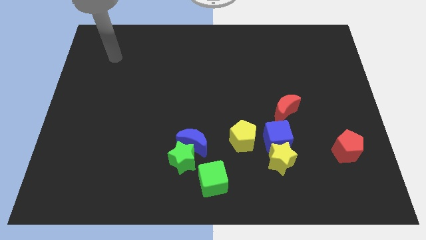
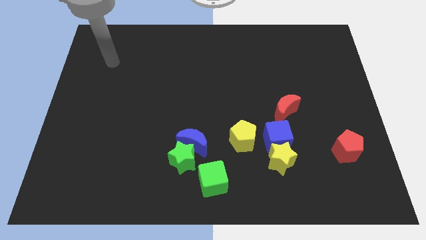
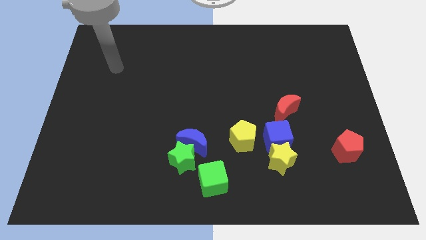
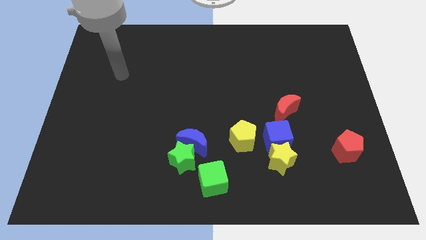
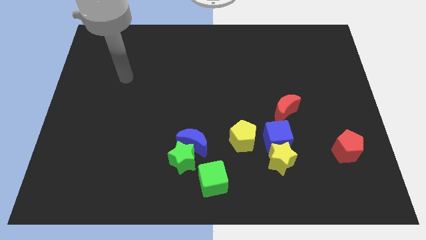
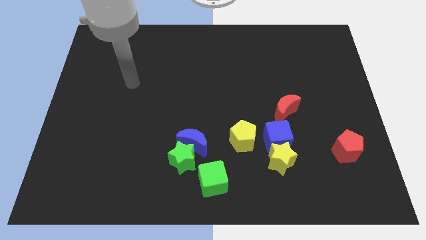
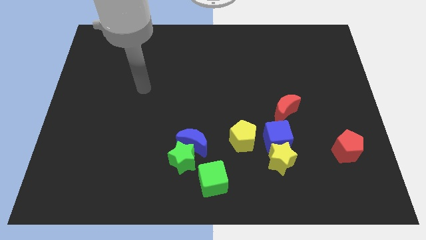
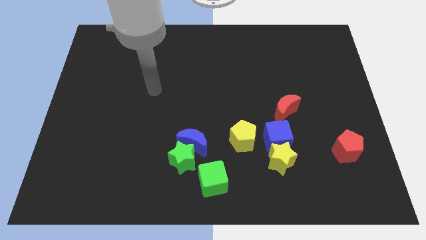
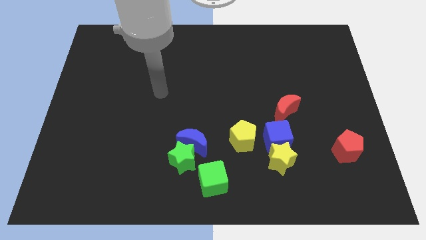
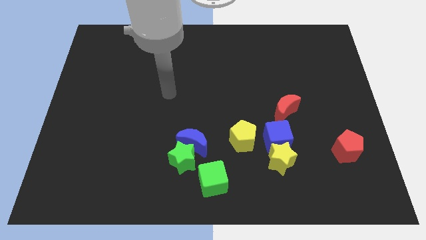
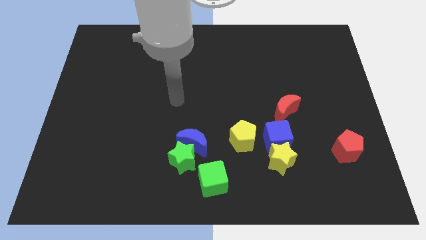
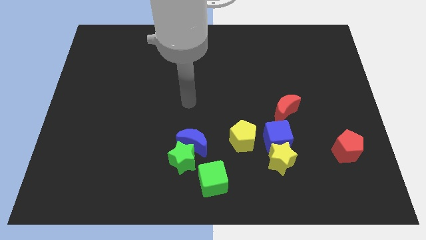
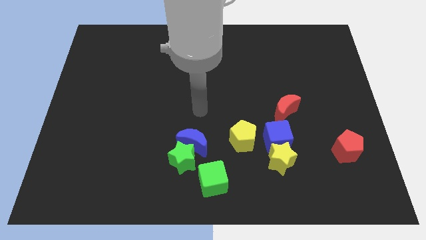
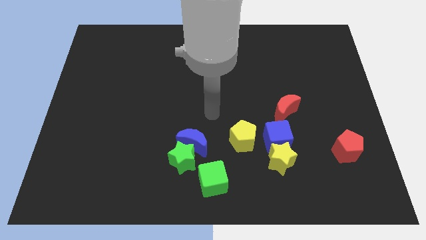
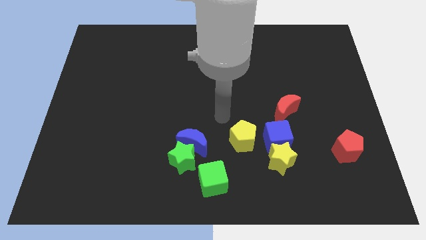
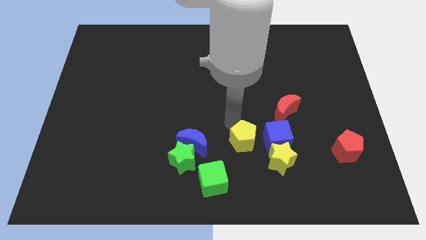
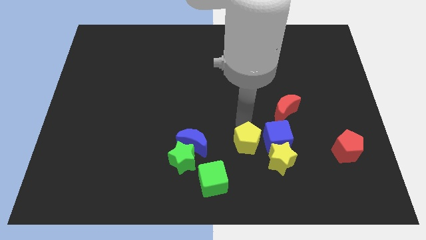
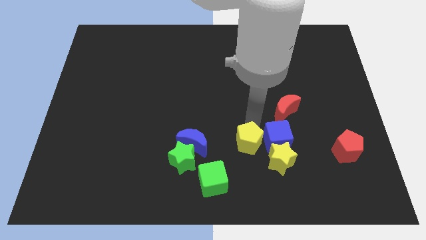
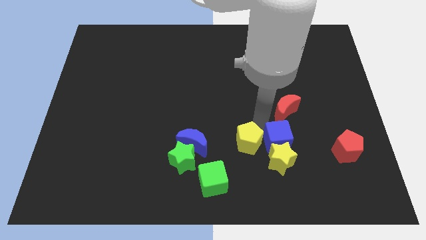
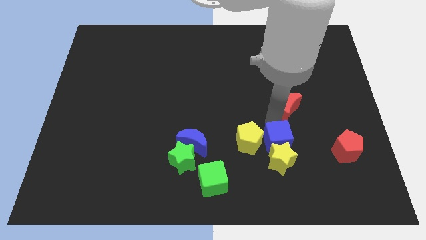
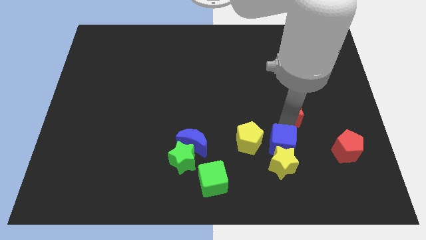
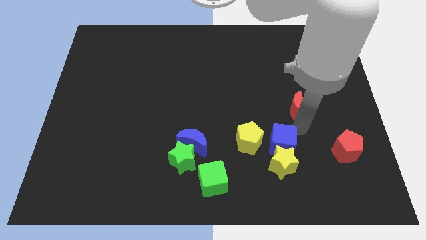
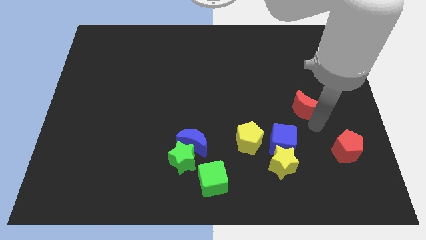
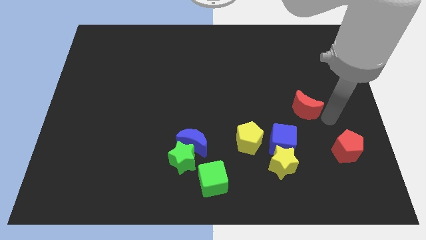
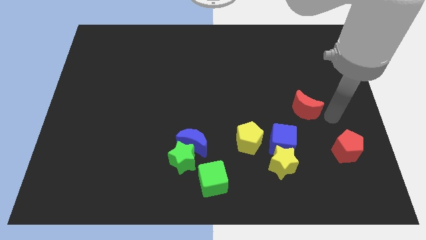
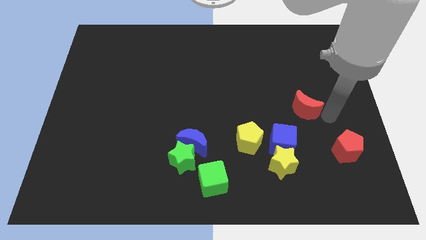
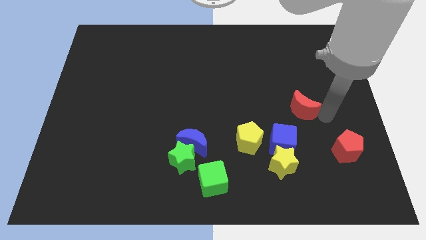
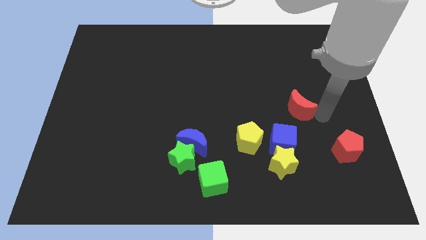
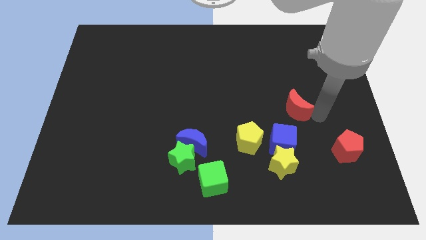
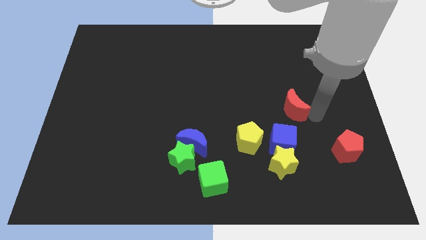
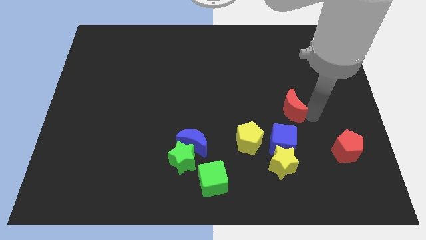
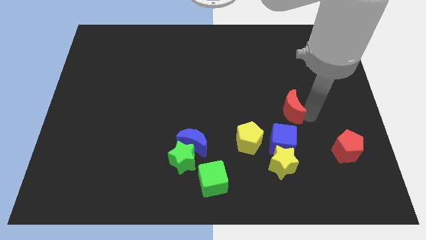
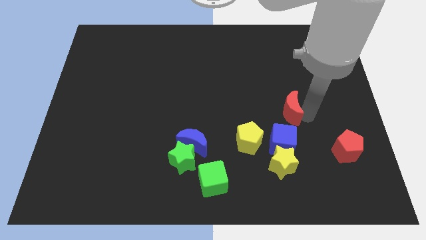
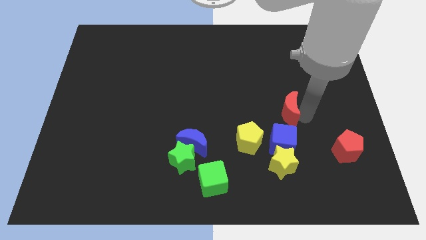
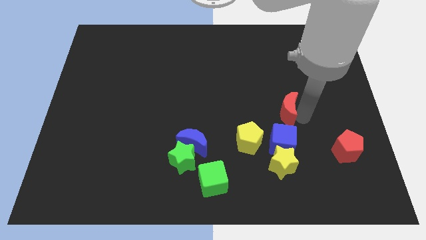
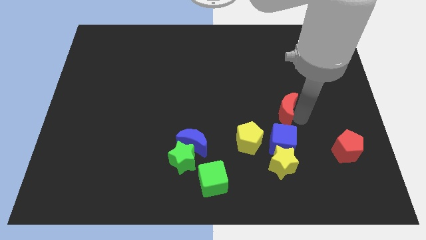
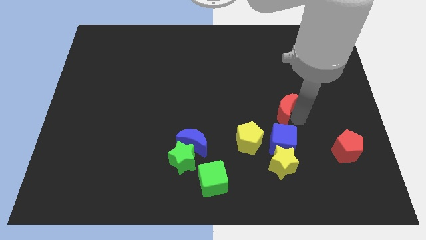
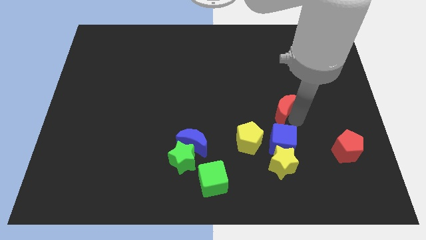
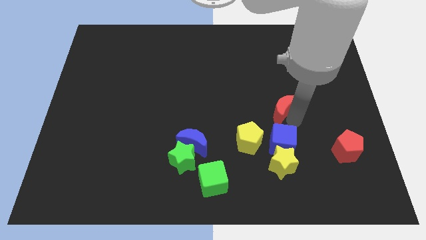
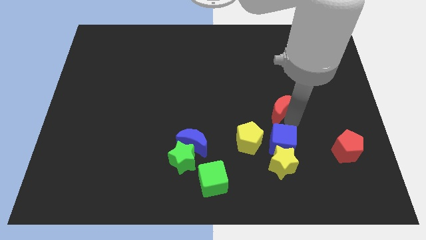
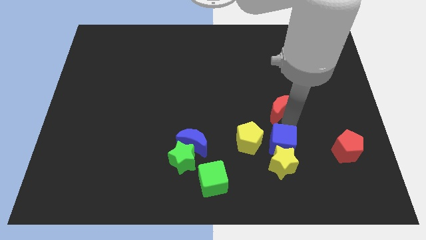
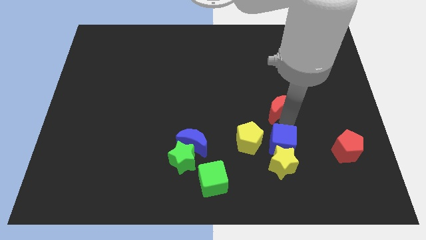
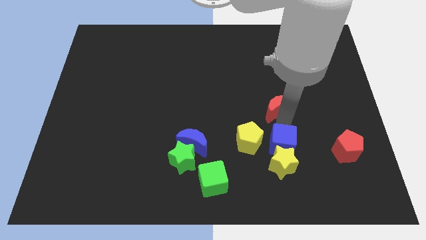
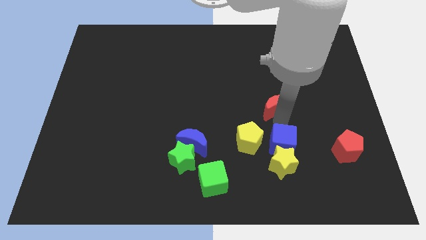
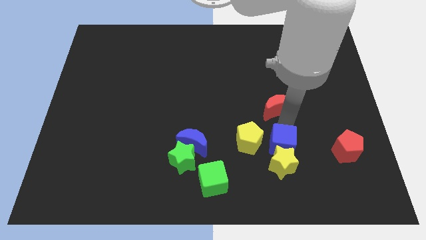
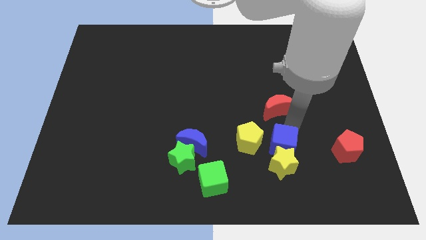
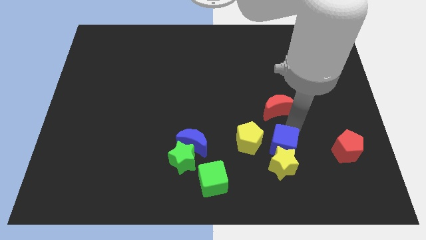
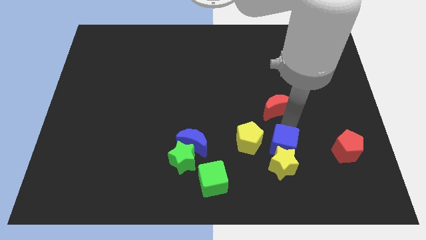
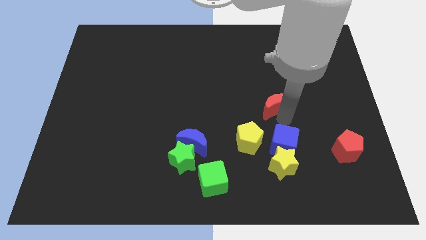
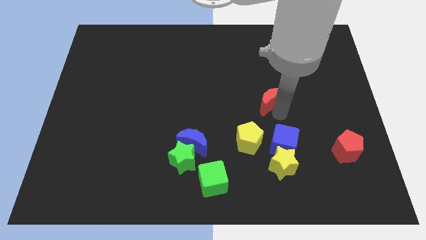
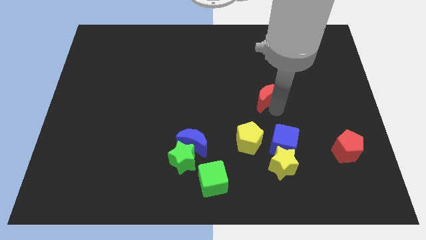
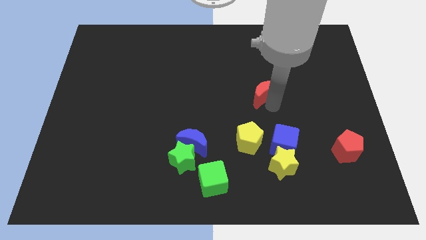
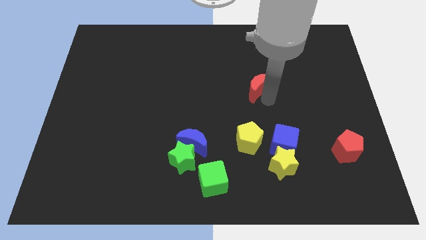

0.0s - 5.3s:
slightly move the red moon up and then left

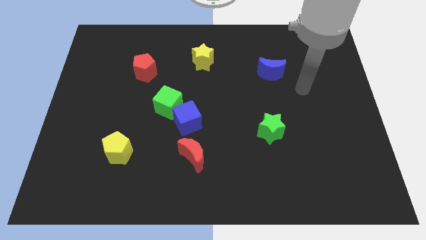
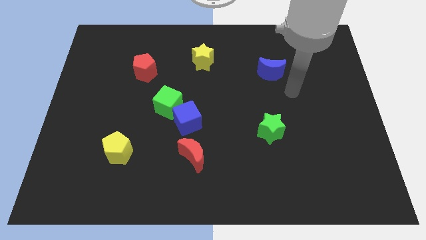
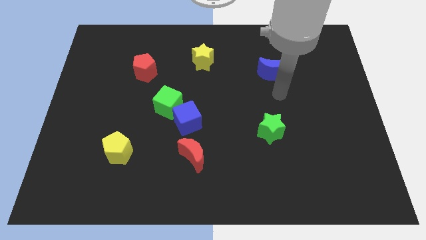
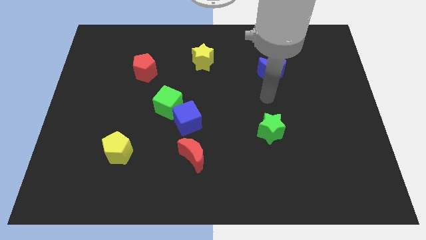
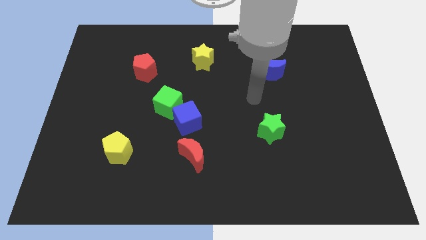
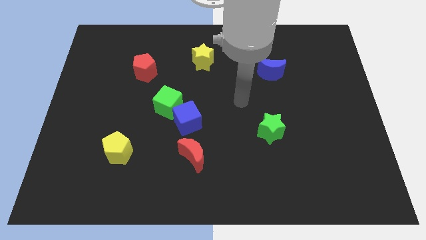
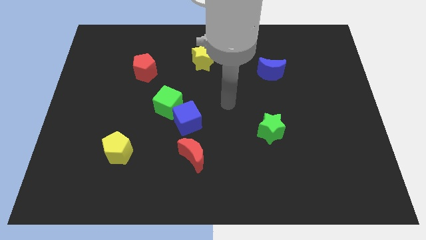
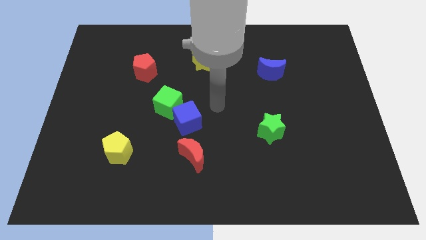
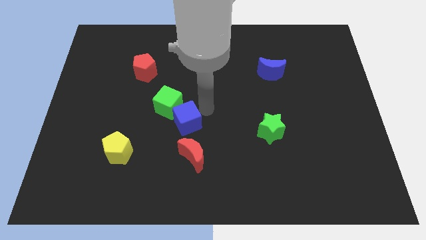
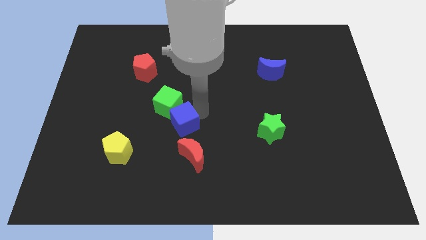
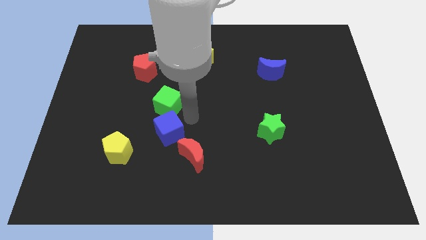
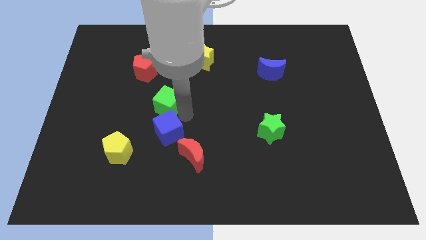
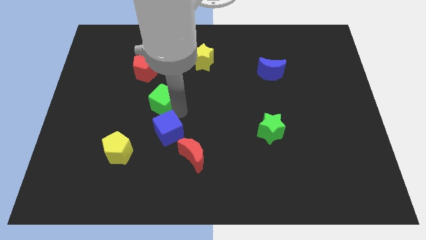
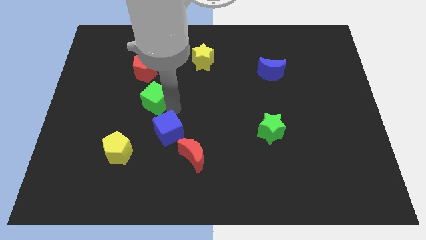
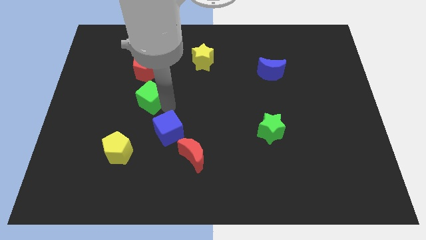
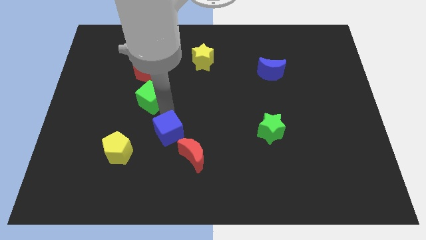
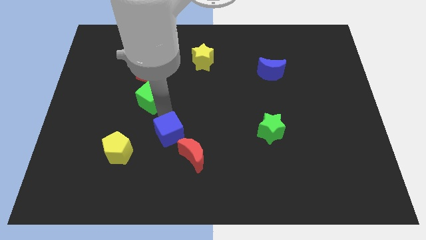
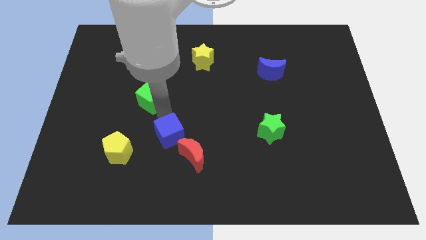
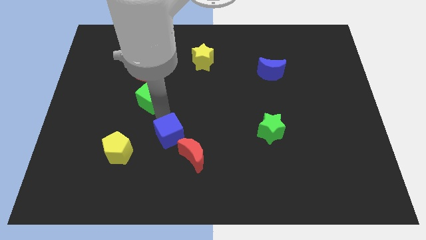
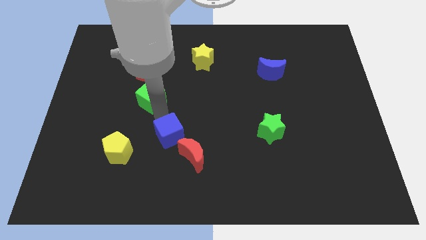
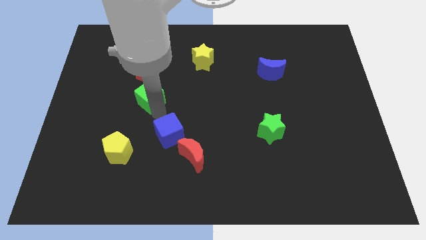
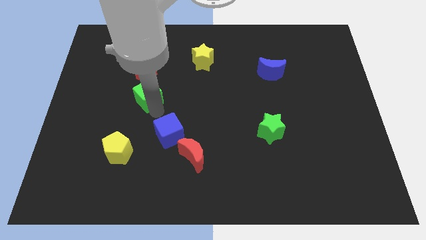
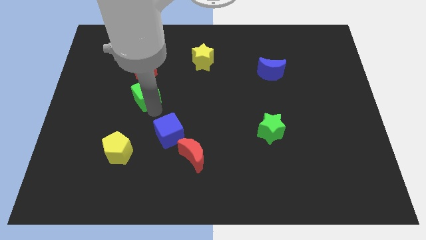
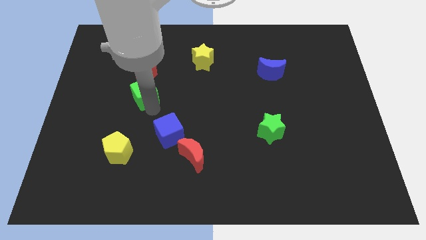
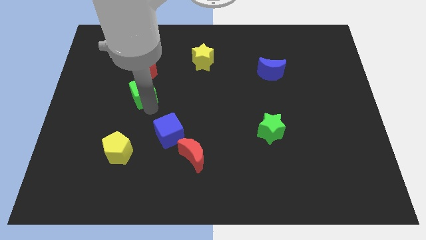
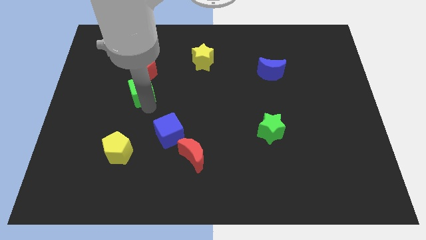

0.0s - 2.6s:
push the green cube a little upwards and to the left

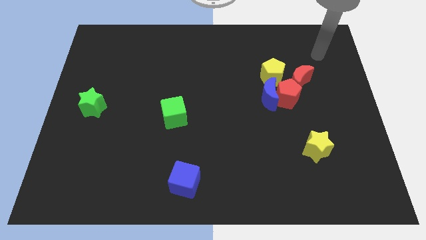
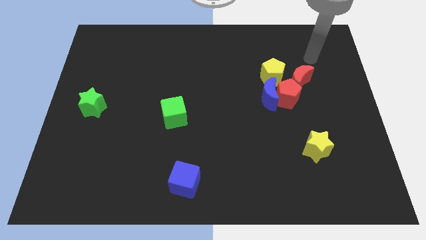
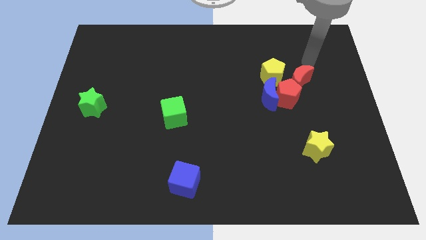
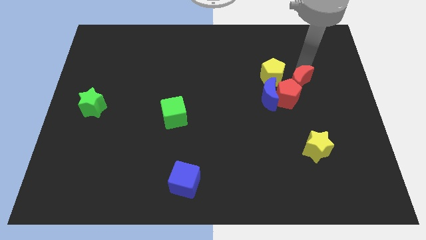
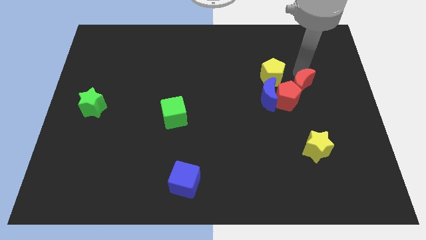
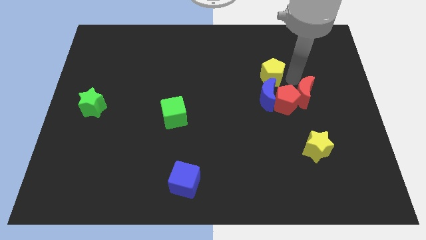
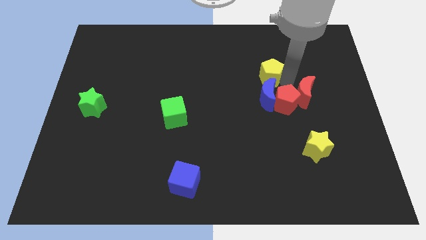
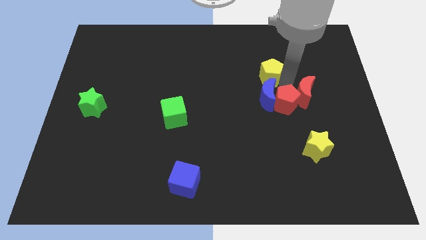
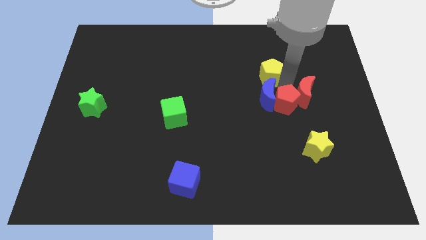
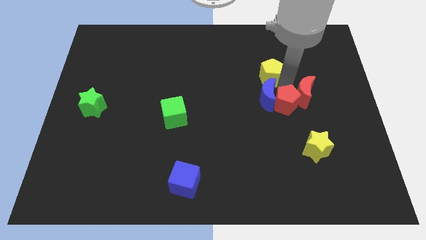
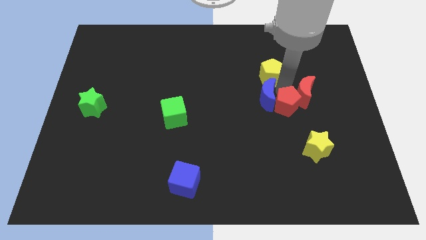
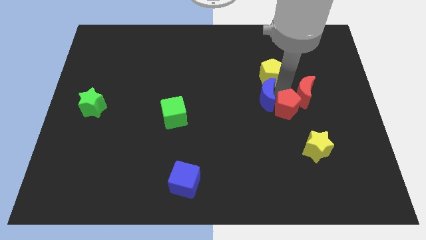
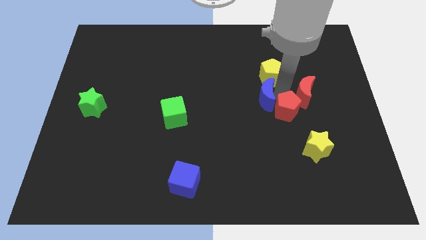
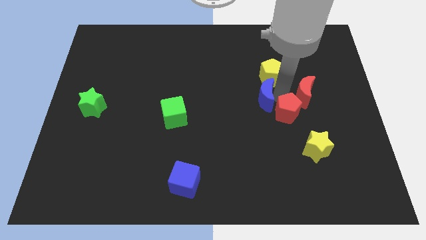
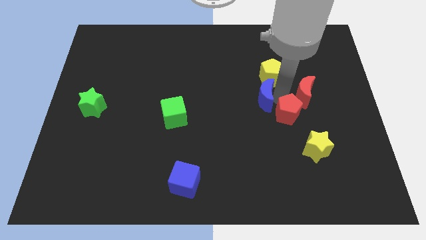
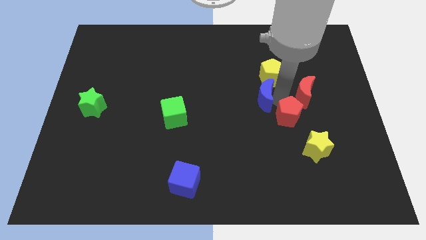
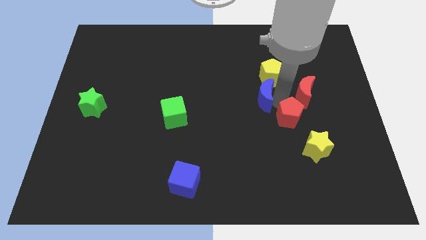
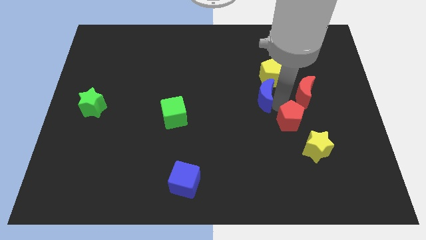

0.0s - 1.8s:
move the red pentagon a bit downwards
